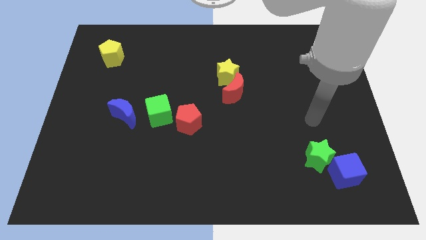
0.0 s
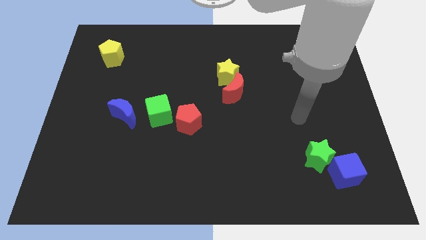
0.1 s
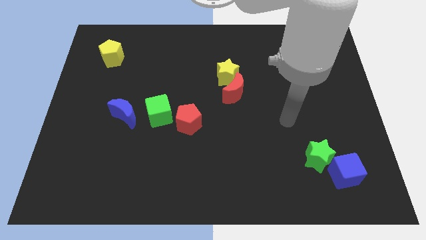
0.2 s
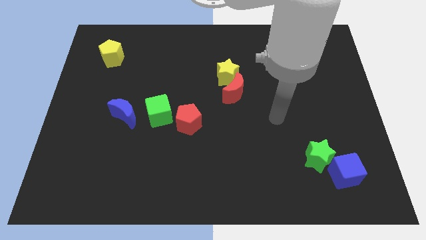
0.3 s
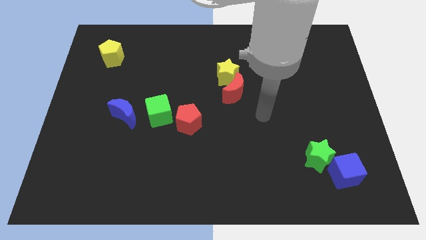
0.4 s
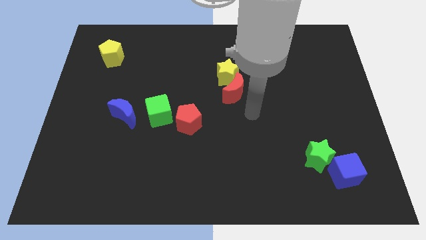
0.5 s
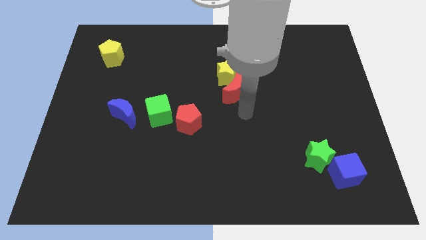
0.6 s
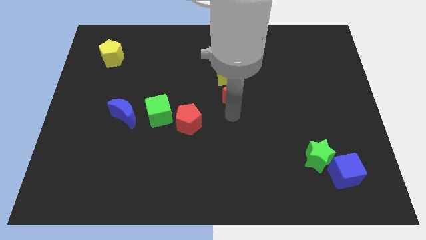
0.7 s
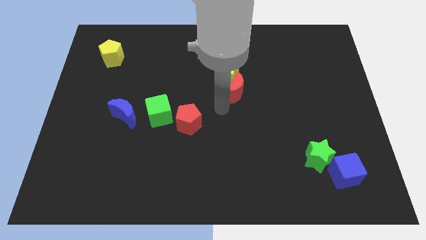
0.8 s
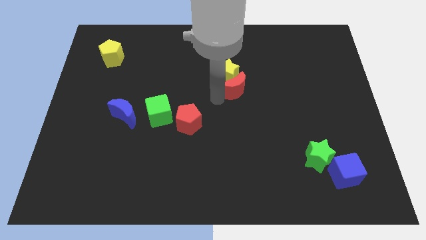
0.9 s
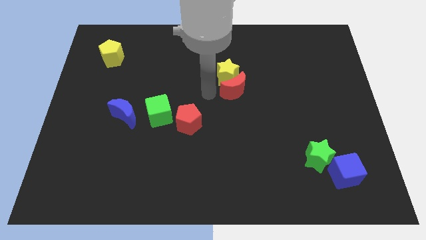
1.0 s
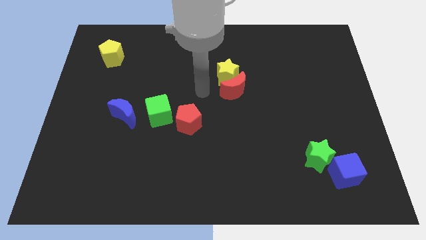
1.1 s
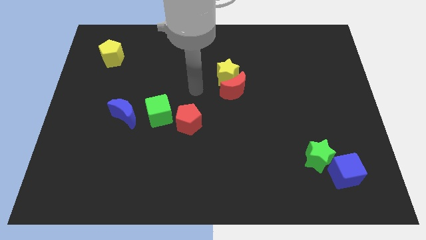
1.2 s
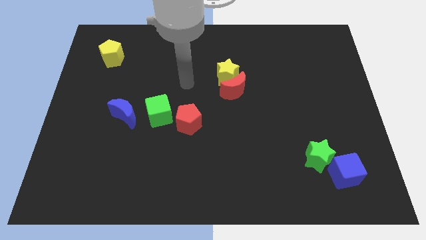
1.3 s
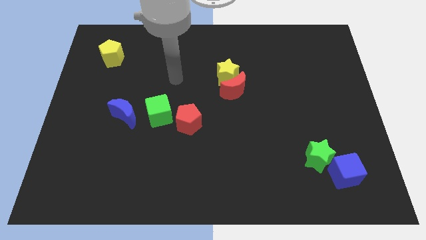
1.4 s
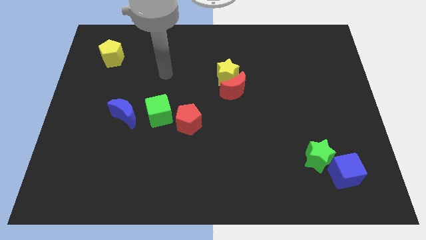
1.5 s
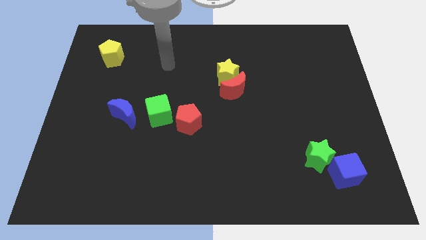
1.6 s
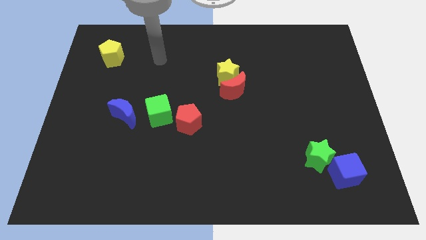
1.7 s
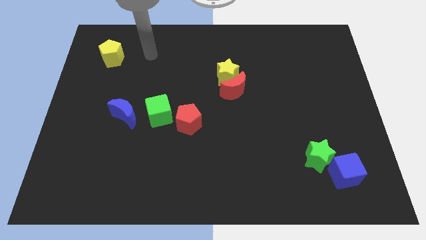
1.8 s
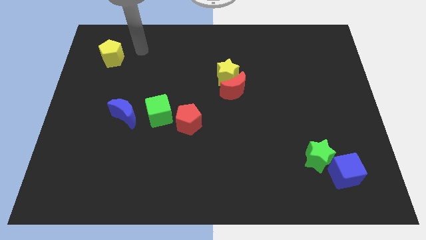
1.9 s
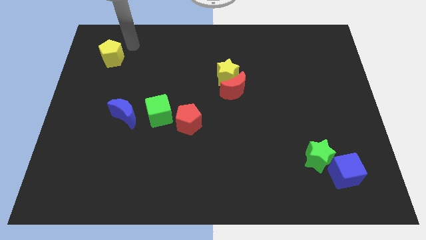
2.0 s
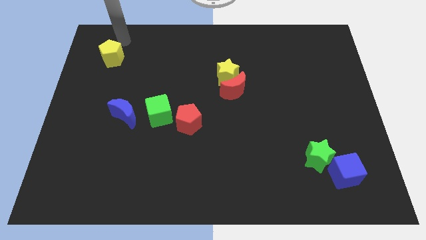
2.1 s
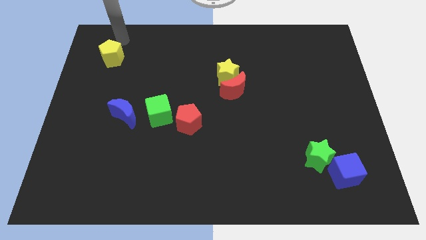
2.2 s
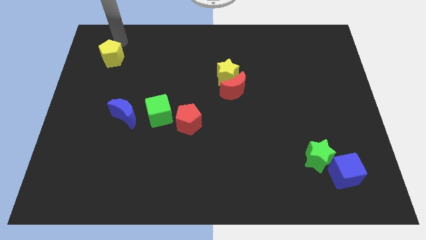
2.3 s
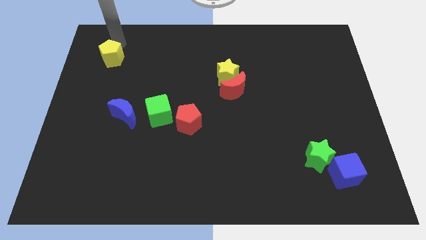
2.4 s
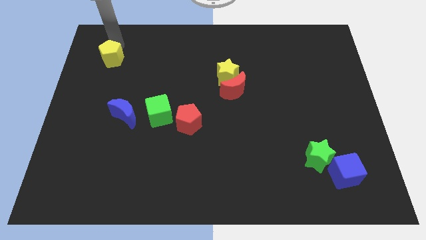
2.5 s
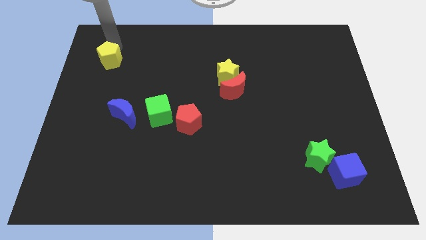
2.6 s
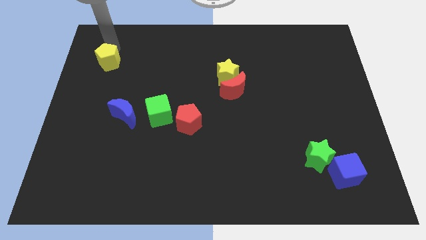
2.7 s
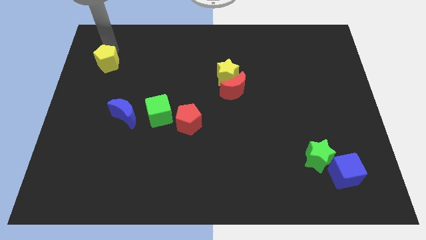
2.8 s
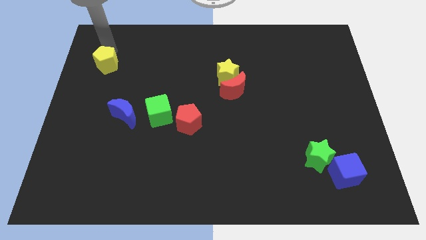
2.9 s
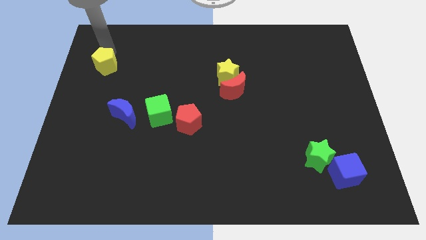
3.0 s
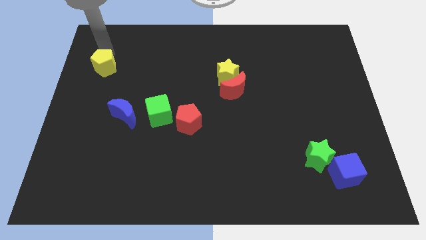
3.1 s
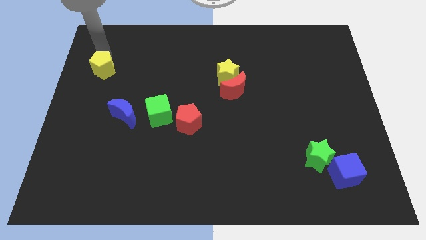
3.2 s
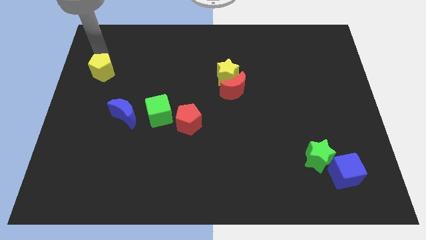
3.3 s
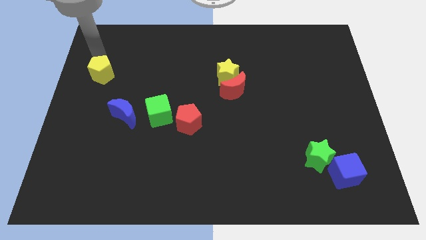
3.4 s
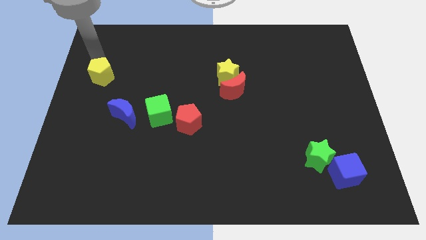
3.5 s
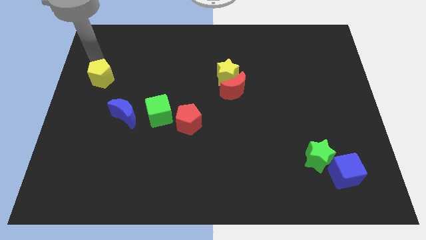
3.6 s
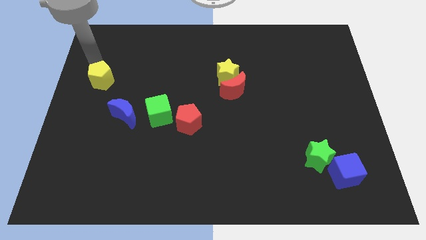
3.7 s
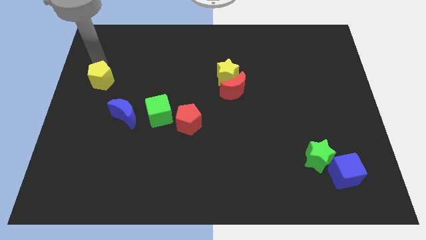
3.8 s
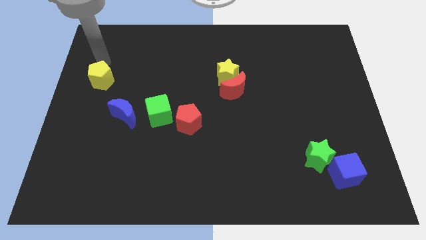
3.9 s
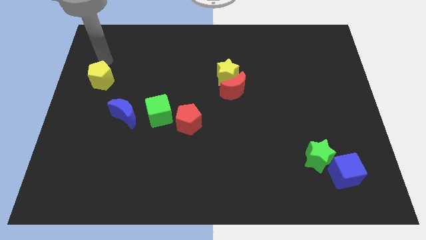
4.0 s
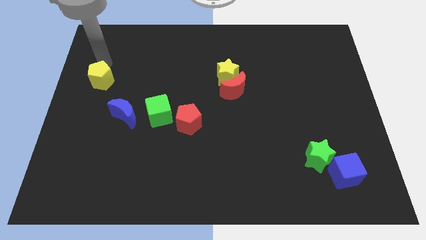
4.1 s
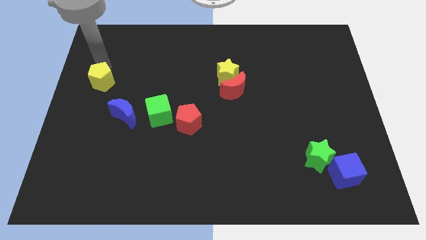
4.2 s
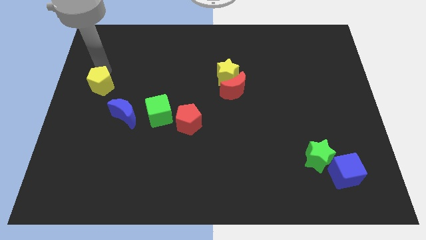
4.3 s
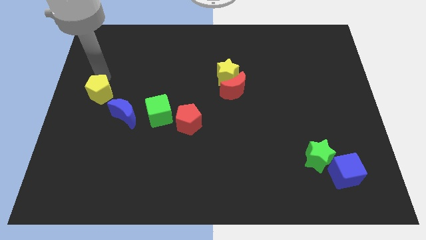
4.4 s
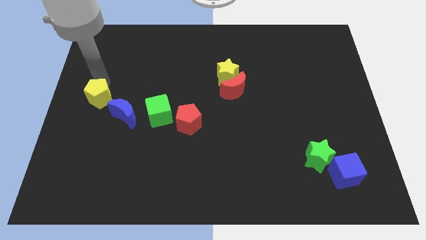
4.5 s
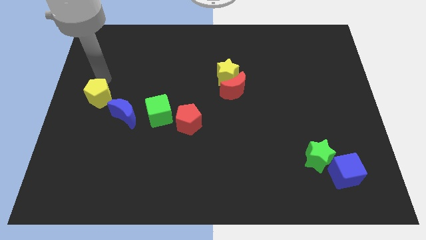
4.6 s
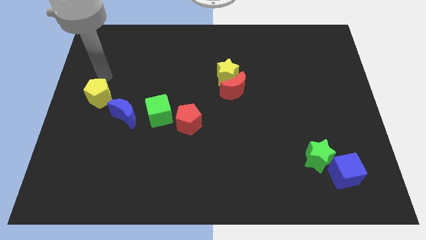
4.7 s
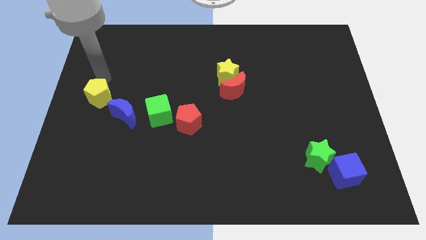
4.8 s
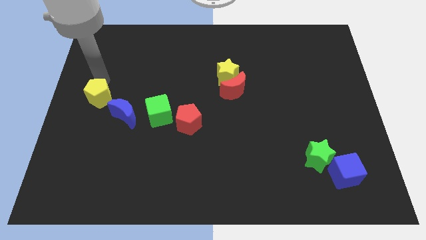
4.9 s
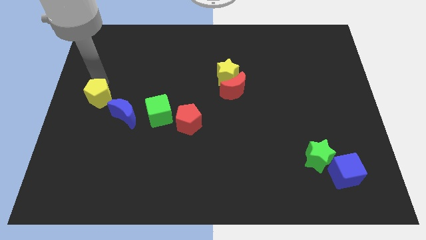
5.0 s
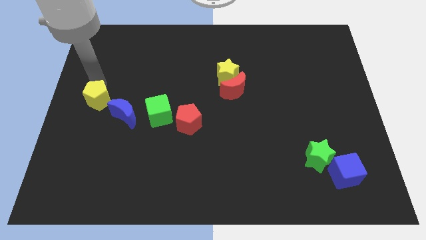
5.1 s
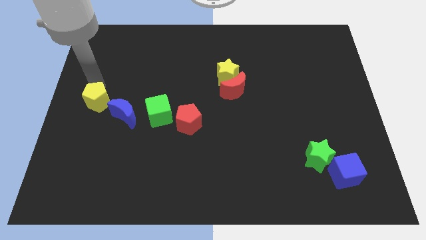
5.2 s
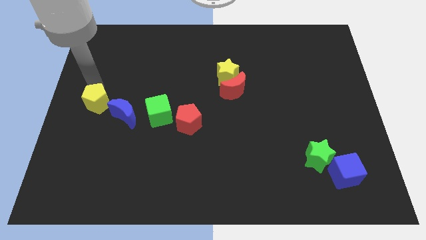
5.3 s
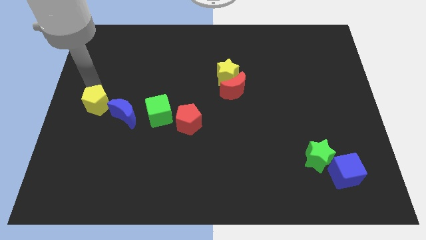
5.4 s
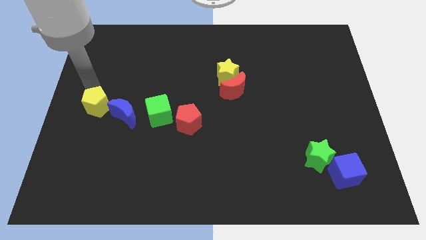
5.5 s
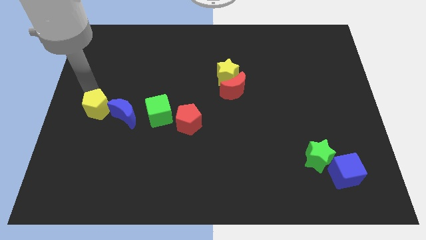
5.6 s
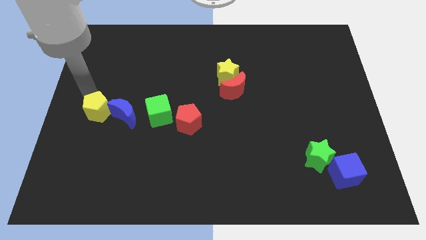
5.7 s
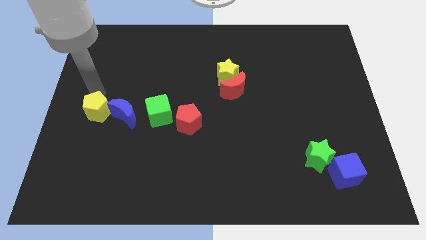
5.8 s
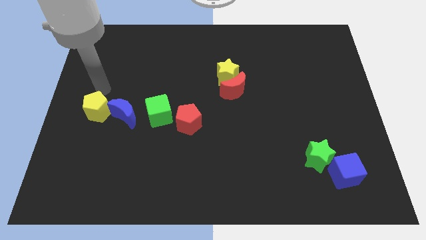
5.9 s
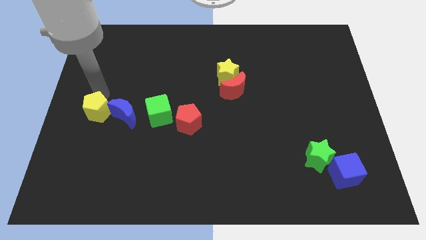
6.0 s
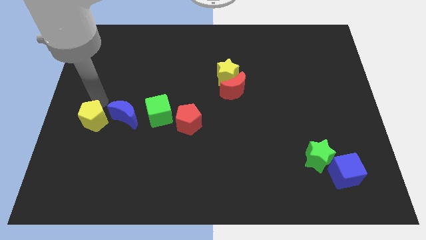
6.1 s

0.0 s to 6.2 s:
move the yellow pentagon downwards

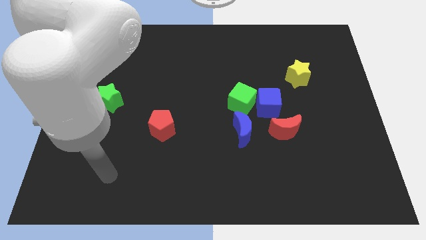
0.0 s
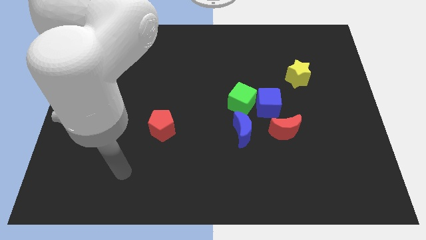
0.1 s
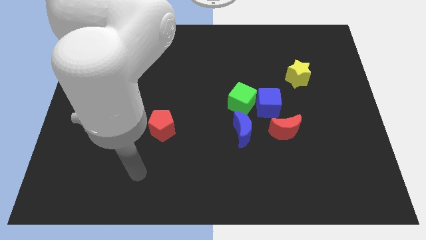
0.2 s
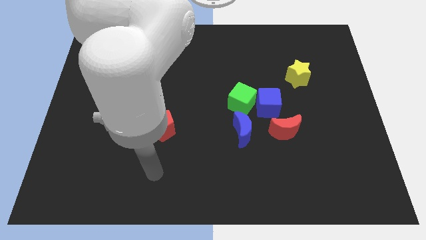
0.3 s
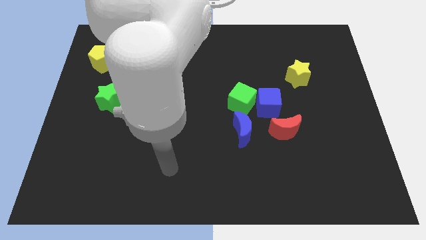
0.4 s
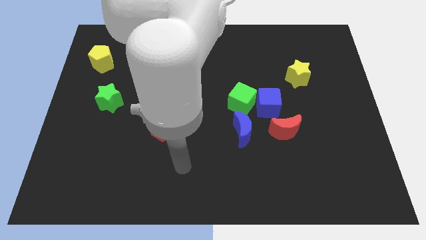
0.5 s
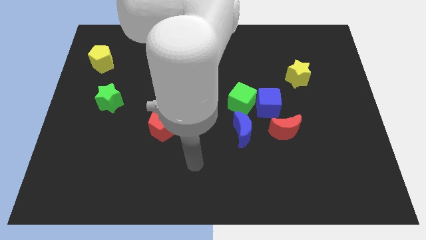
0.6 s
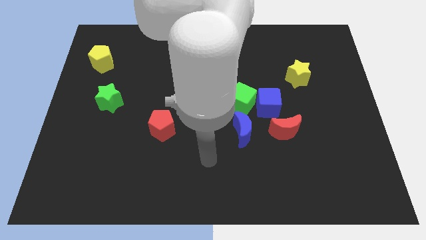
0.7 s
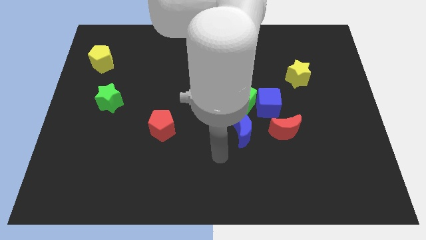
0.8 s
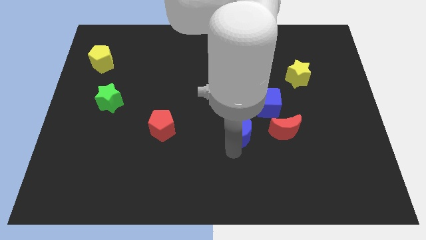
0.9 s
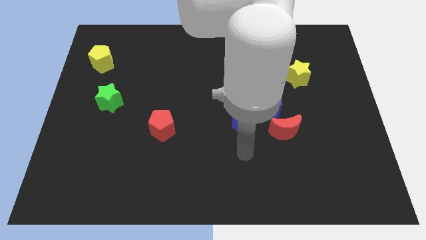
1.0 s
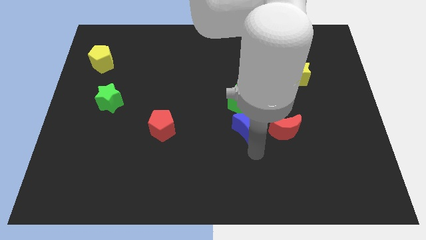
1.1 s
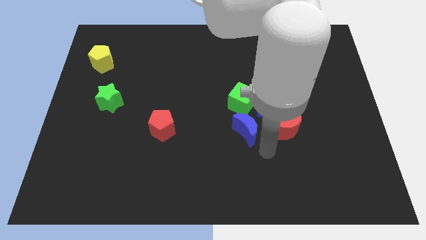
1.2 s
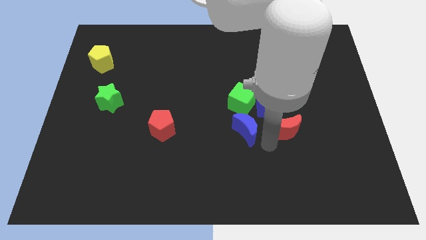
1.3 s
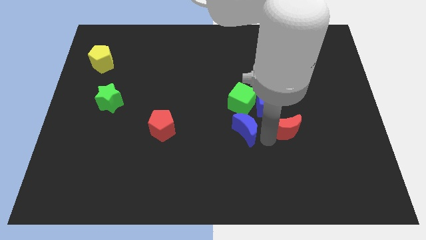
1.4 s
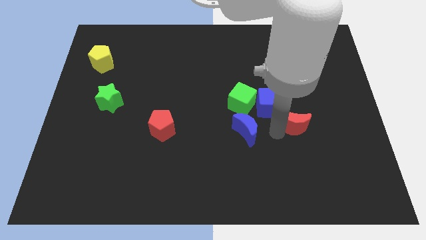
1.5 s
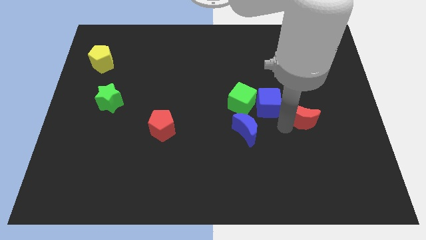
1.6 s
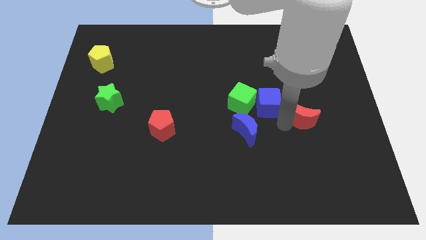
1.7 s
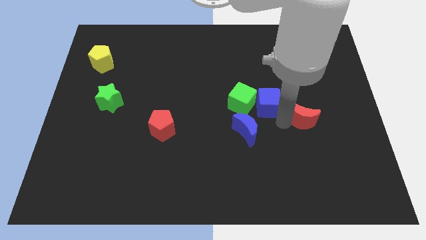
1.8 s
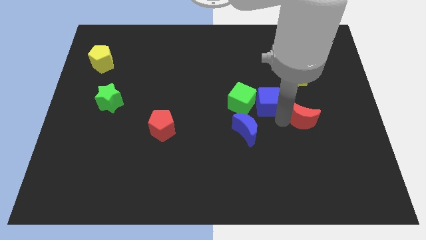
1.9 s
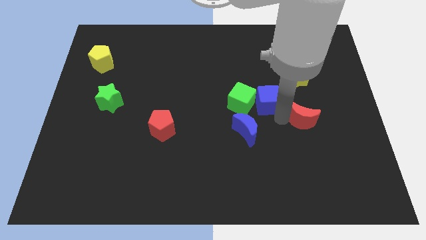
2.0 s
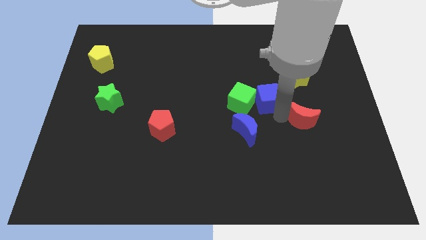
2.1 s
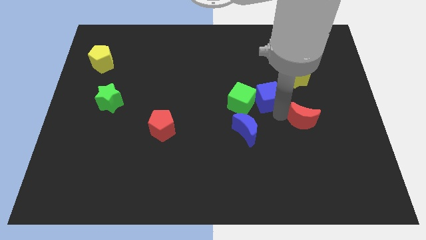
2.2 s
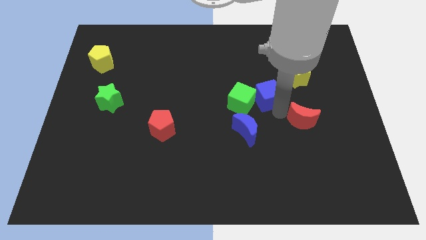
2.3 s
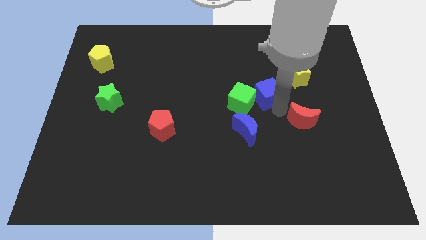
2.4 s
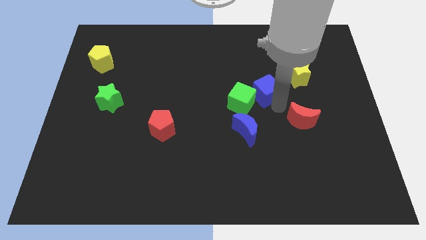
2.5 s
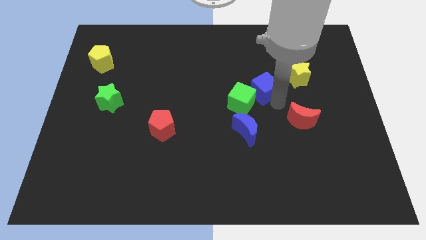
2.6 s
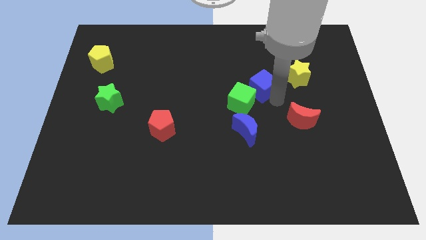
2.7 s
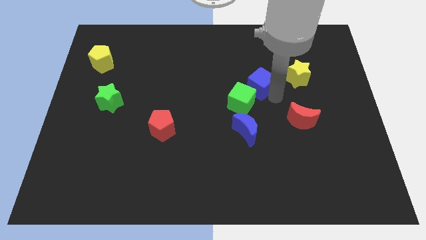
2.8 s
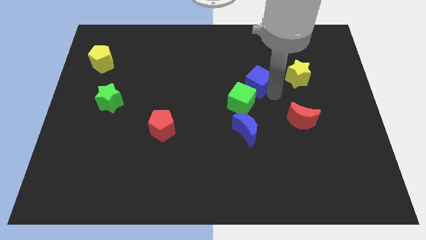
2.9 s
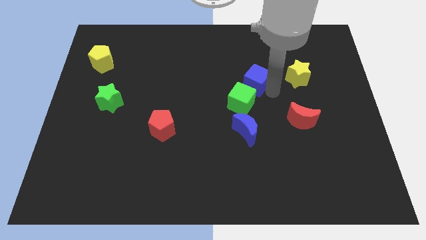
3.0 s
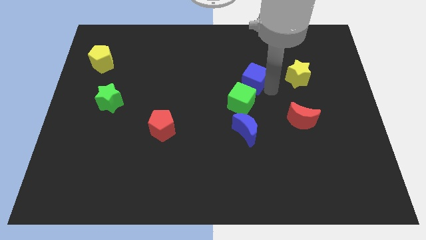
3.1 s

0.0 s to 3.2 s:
push the blue cube a little diagonally up and to the left
